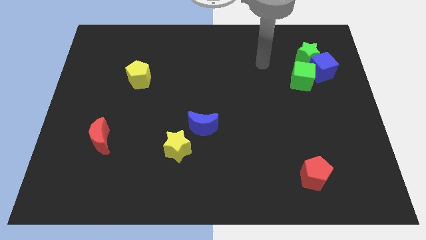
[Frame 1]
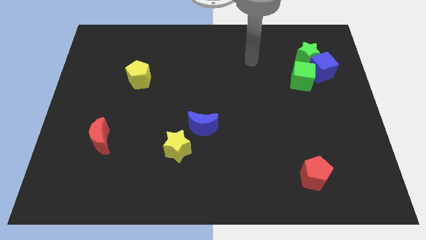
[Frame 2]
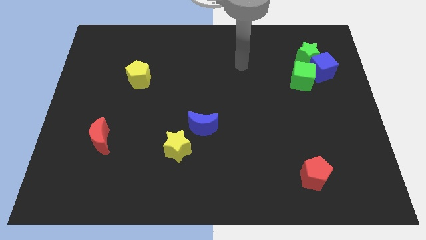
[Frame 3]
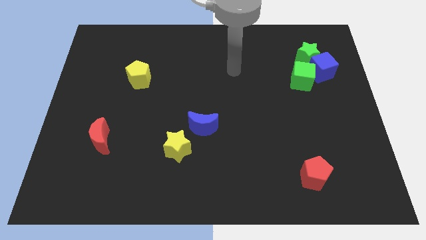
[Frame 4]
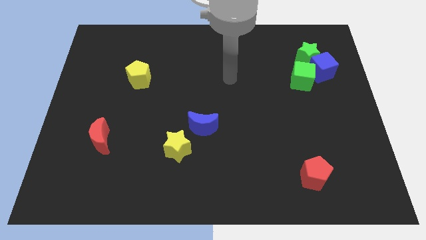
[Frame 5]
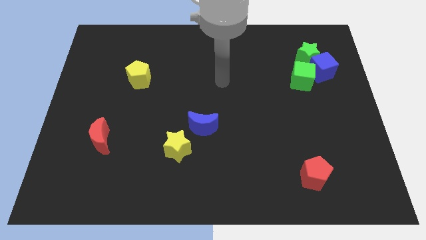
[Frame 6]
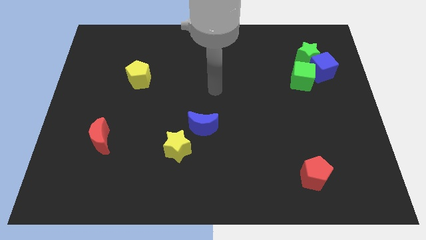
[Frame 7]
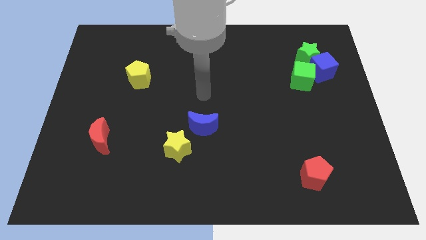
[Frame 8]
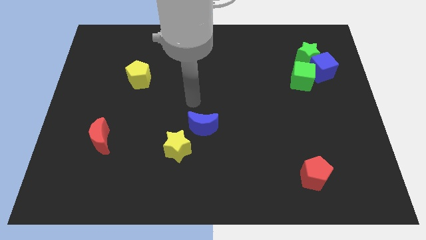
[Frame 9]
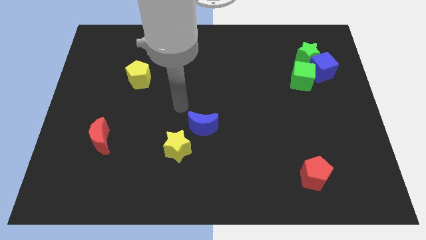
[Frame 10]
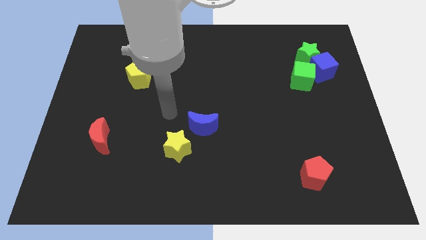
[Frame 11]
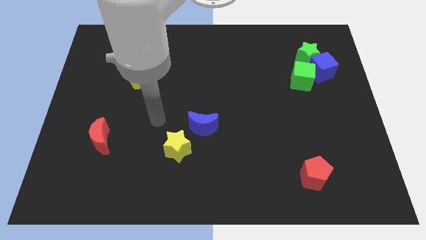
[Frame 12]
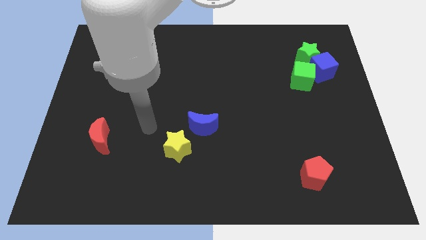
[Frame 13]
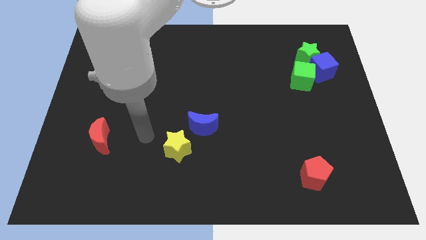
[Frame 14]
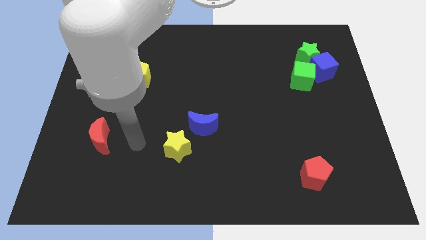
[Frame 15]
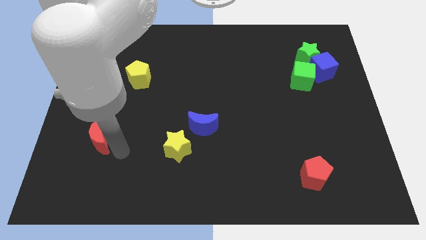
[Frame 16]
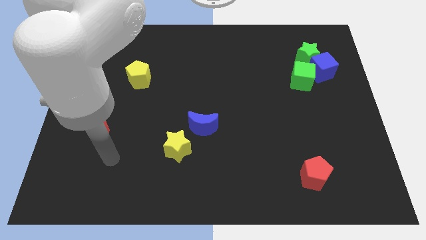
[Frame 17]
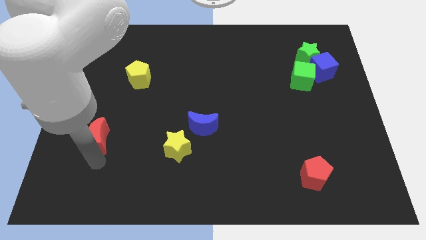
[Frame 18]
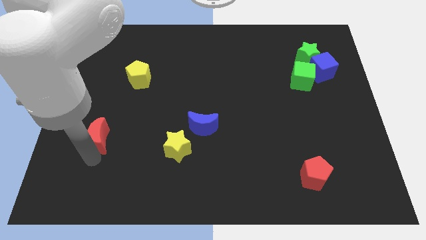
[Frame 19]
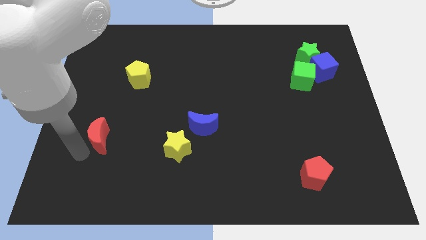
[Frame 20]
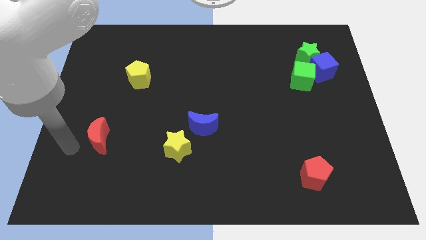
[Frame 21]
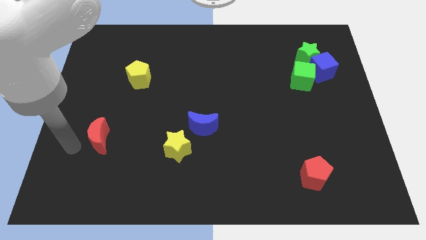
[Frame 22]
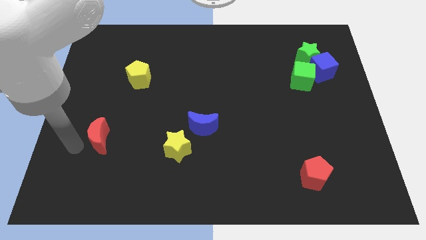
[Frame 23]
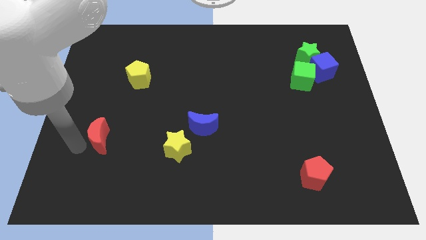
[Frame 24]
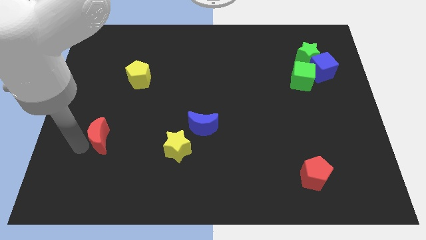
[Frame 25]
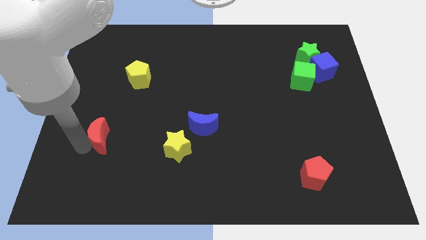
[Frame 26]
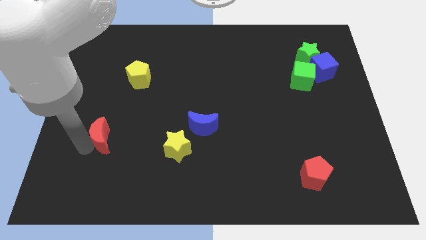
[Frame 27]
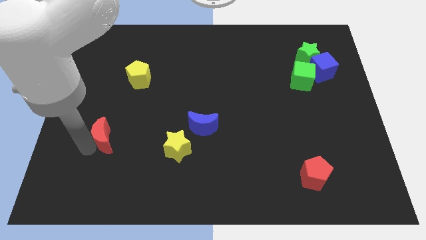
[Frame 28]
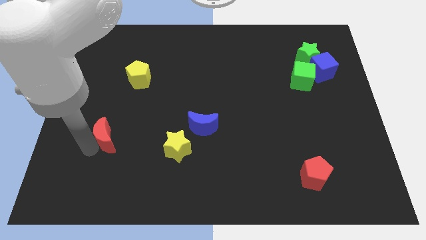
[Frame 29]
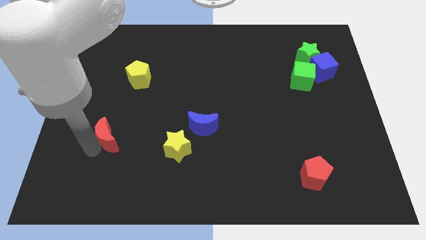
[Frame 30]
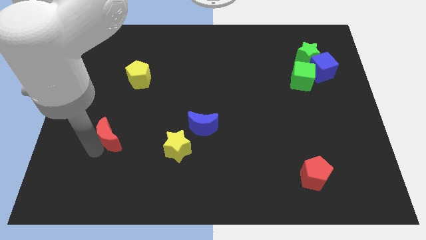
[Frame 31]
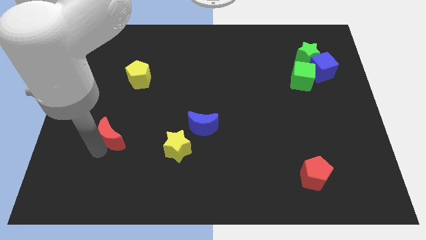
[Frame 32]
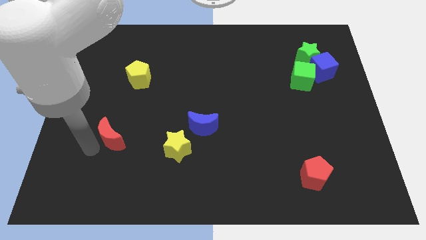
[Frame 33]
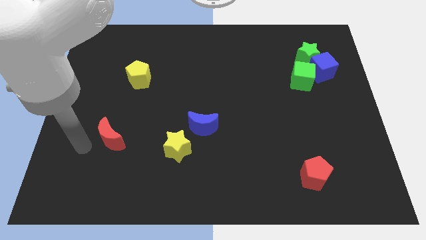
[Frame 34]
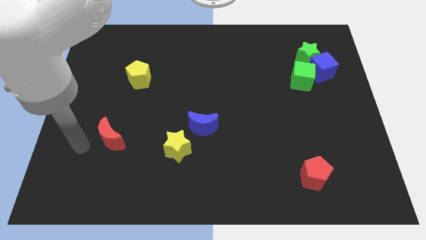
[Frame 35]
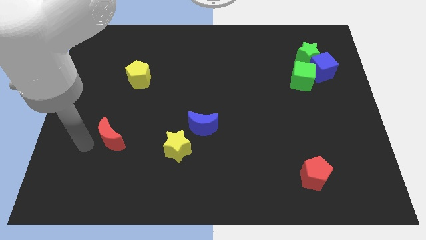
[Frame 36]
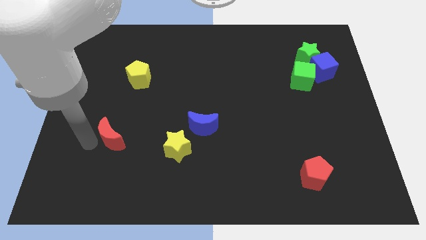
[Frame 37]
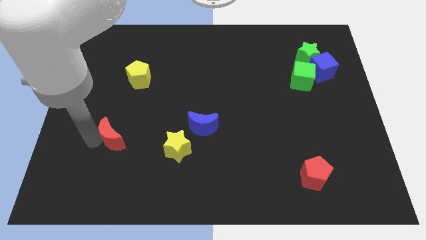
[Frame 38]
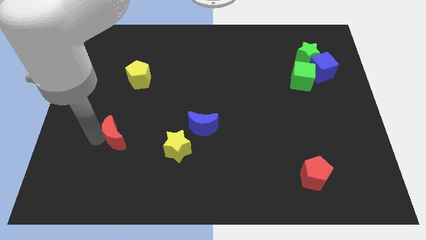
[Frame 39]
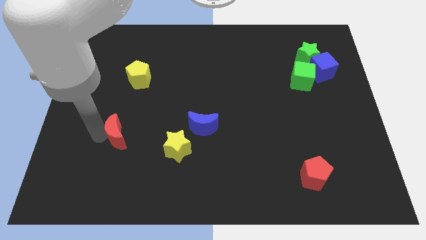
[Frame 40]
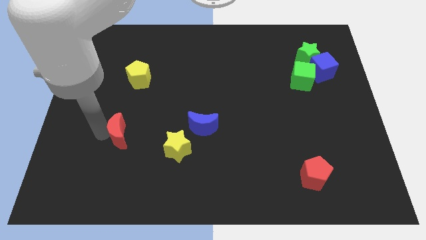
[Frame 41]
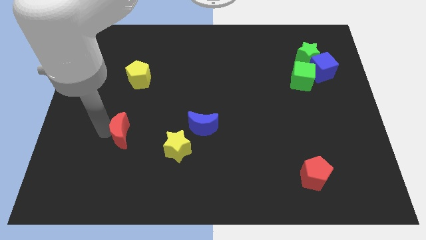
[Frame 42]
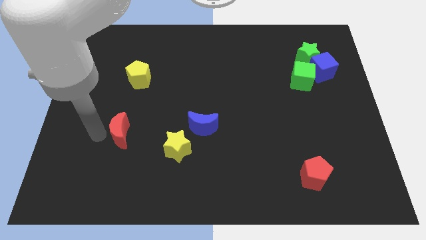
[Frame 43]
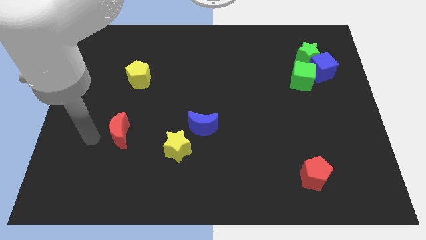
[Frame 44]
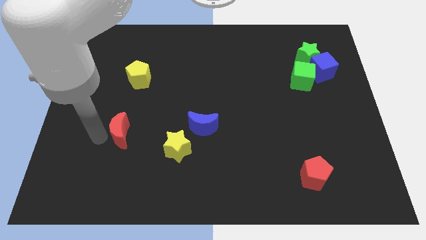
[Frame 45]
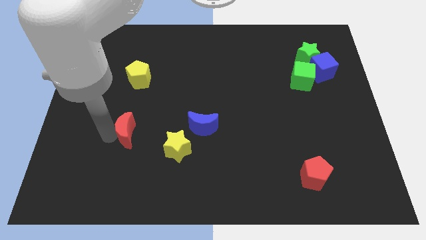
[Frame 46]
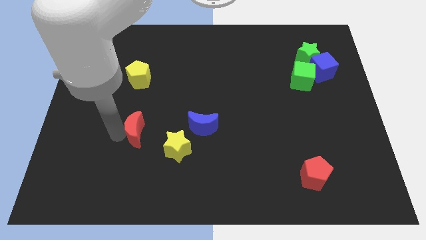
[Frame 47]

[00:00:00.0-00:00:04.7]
push the red moon to the top left of the yellow star

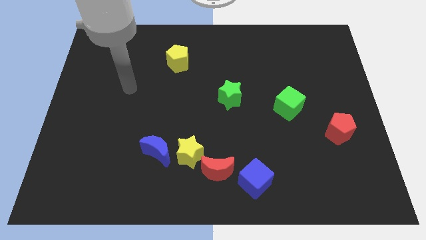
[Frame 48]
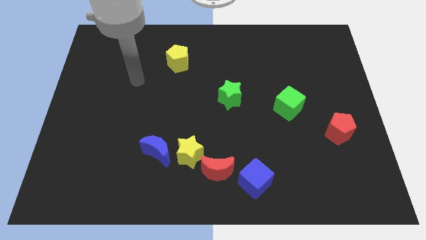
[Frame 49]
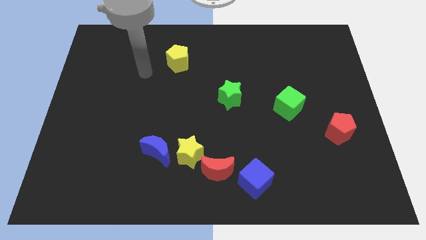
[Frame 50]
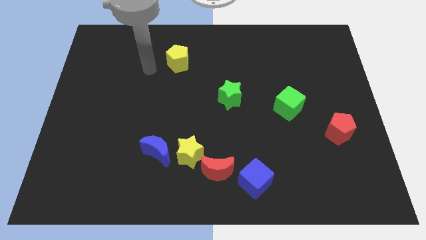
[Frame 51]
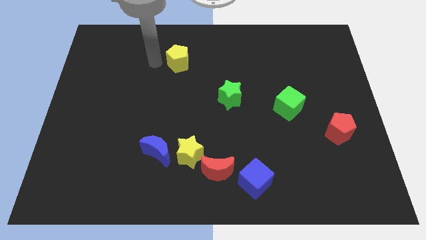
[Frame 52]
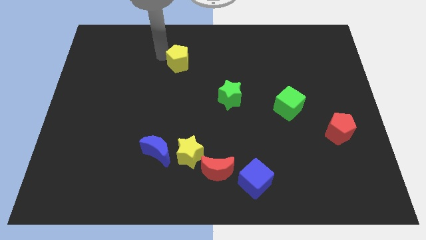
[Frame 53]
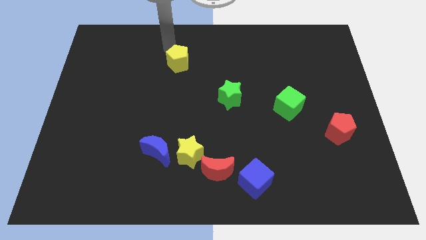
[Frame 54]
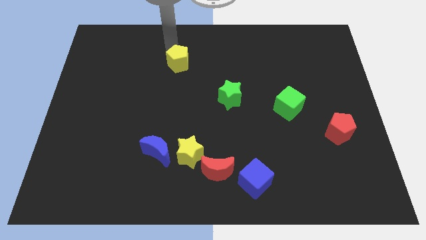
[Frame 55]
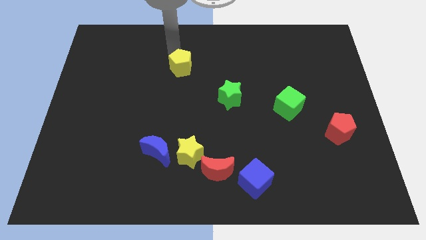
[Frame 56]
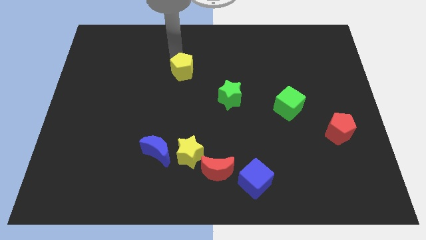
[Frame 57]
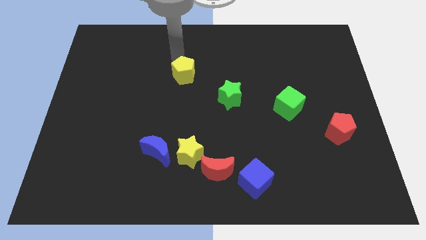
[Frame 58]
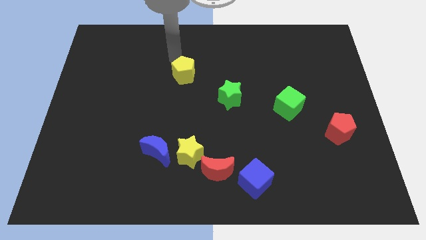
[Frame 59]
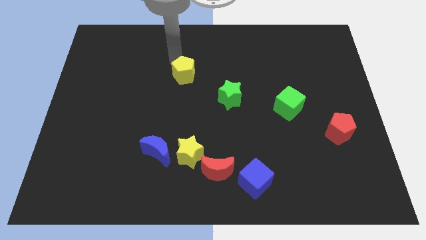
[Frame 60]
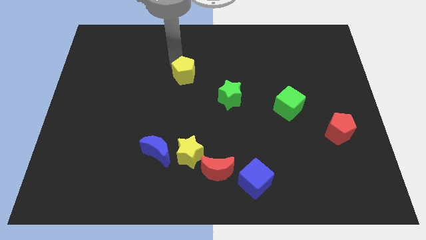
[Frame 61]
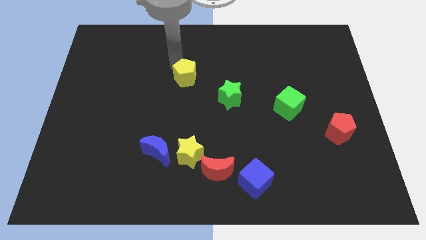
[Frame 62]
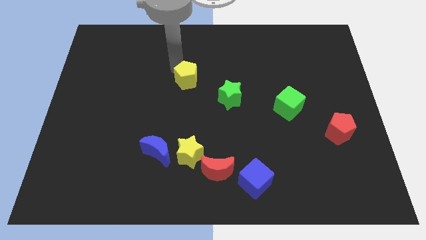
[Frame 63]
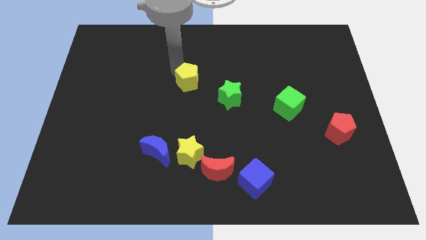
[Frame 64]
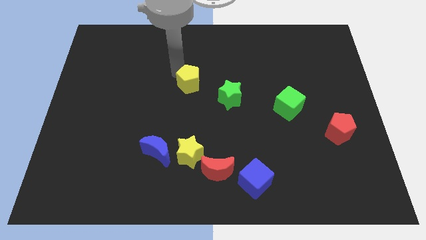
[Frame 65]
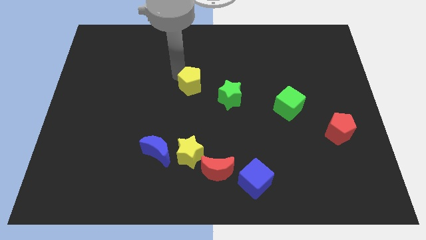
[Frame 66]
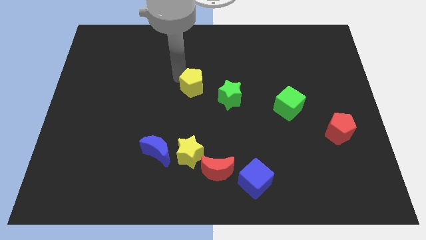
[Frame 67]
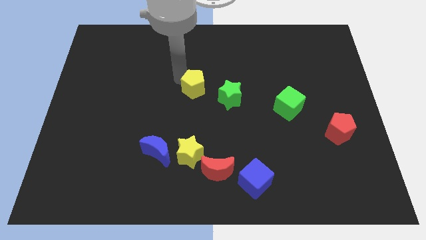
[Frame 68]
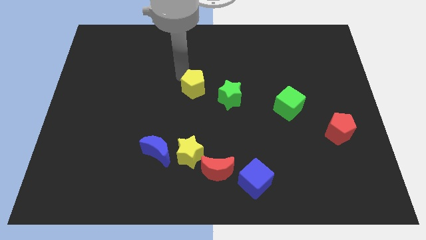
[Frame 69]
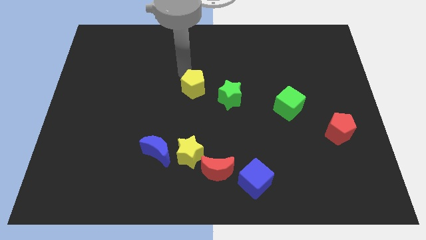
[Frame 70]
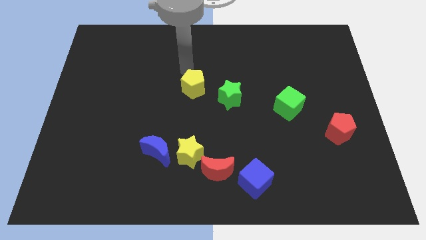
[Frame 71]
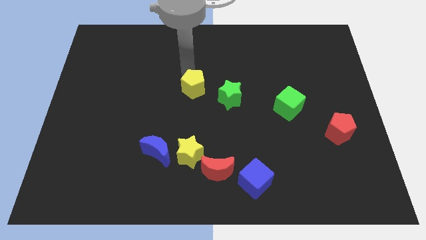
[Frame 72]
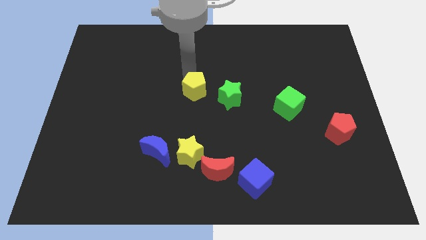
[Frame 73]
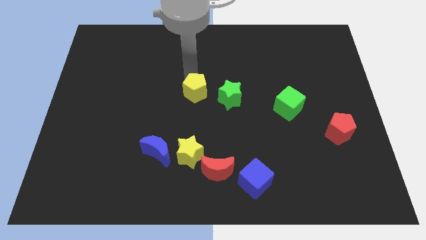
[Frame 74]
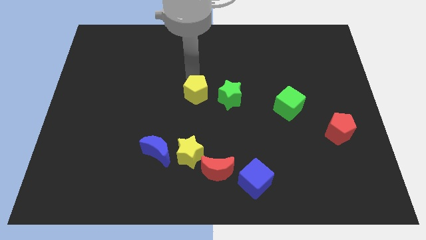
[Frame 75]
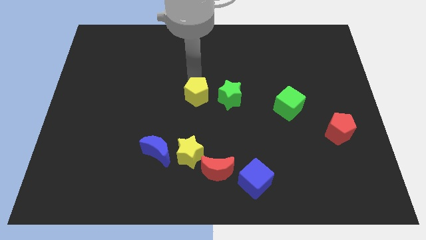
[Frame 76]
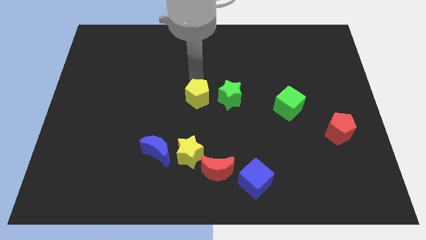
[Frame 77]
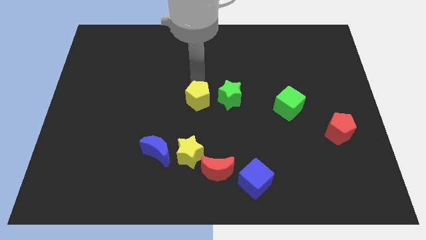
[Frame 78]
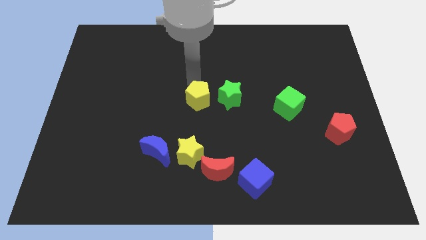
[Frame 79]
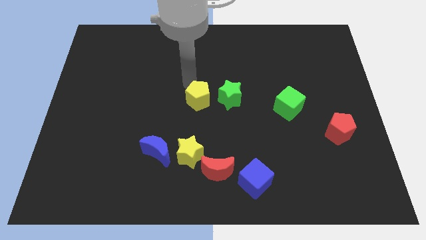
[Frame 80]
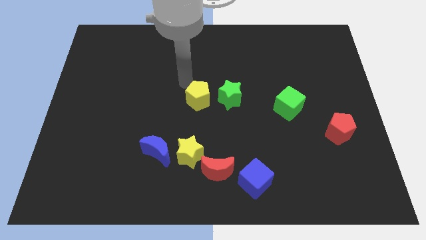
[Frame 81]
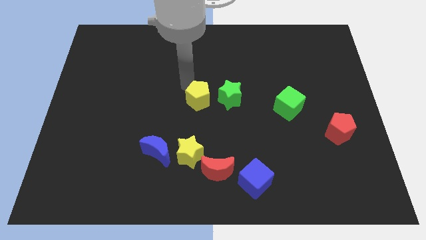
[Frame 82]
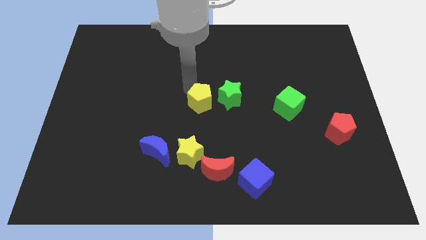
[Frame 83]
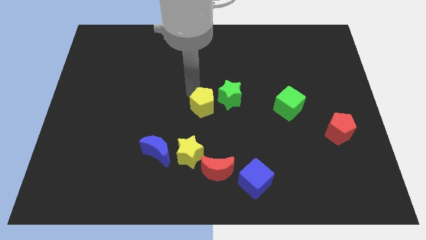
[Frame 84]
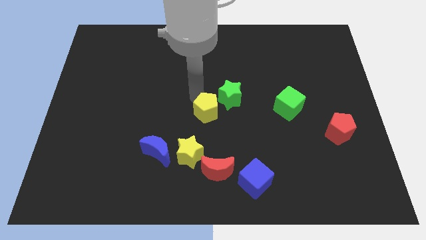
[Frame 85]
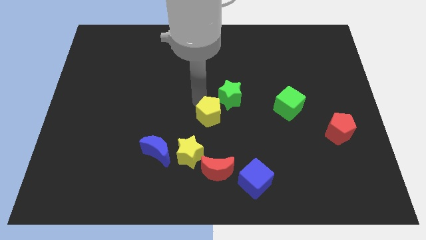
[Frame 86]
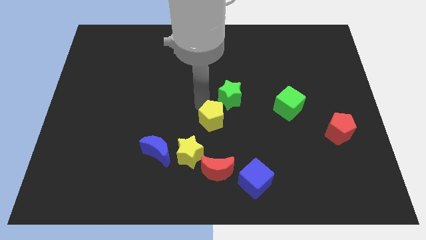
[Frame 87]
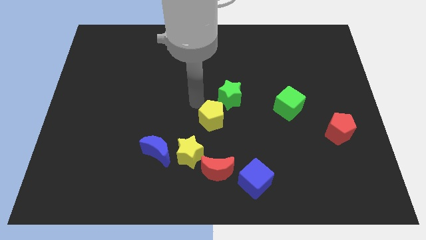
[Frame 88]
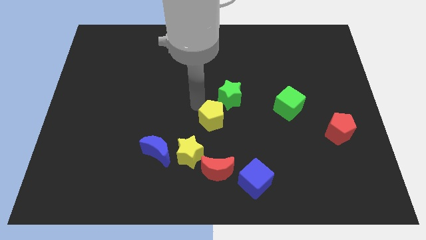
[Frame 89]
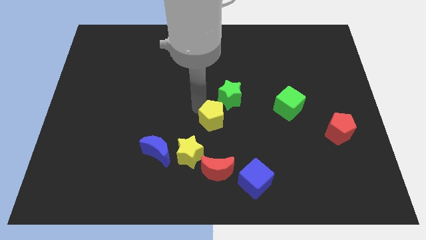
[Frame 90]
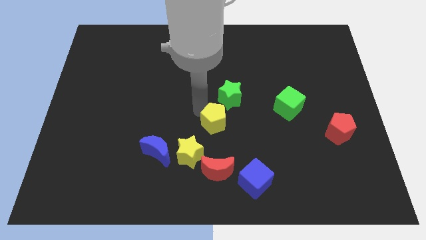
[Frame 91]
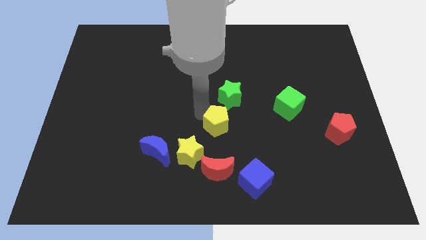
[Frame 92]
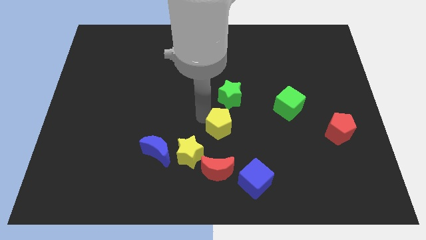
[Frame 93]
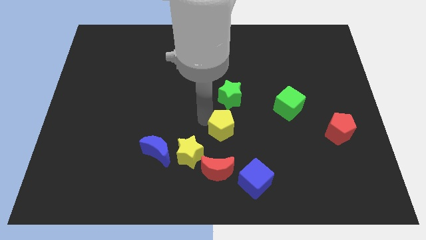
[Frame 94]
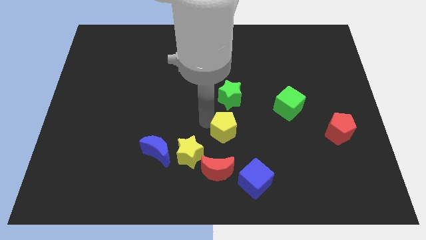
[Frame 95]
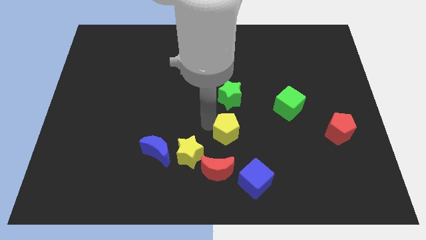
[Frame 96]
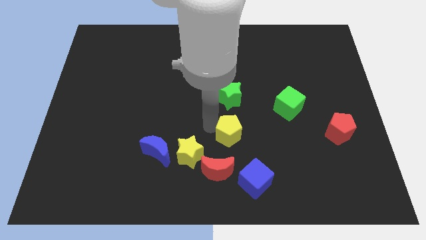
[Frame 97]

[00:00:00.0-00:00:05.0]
push the yellow pentagon diagonally up and to the right of the red moon
